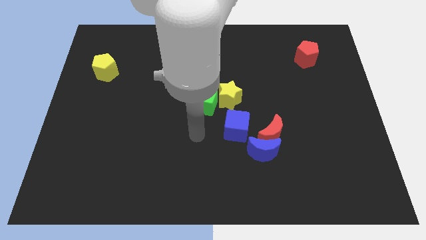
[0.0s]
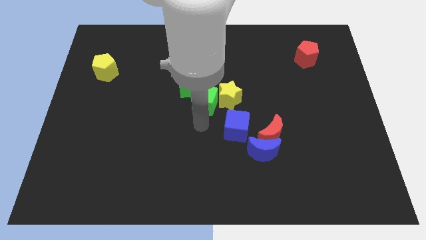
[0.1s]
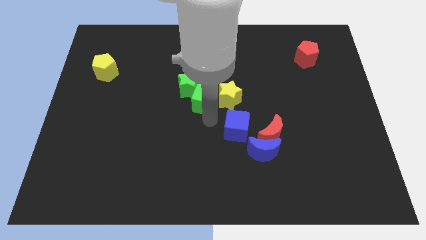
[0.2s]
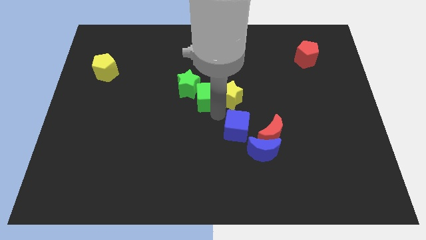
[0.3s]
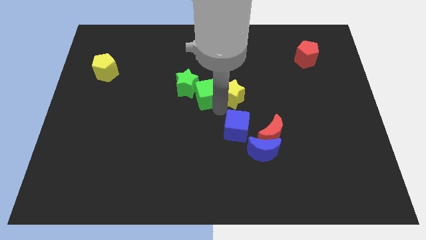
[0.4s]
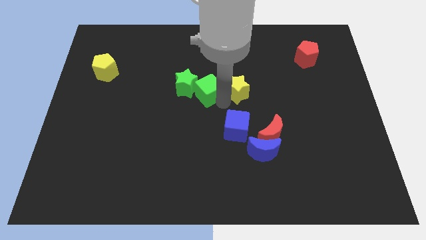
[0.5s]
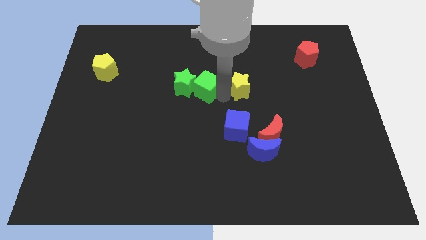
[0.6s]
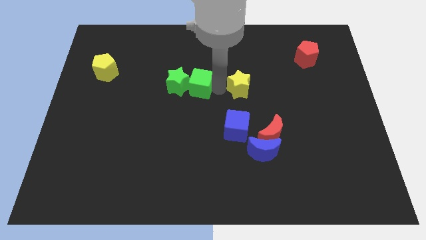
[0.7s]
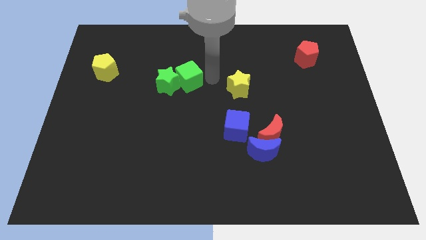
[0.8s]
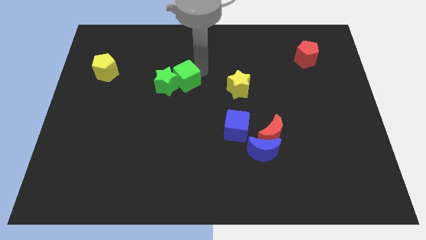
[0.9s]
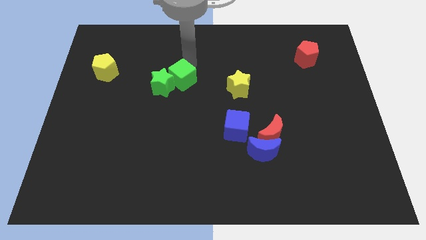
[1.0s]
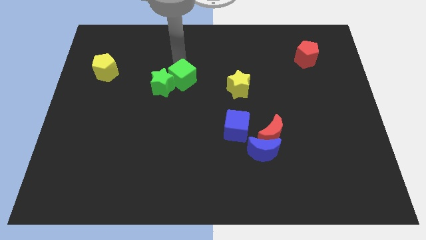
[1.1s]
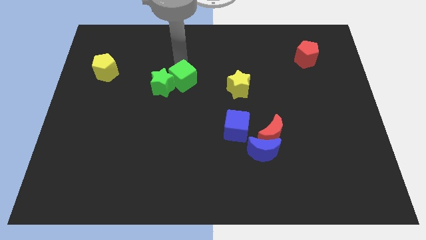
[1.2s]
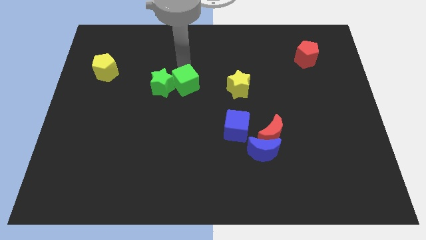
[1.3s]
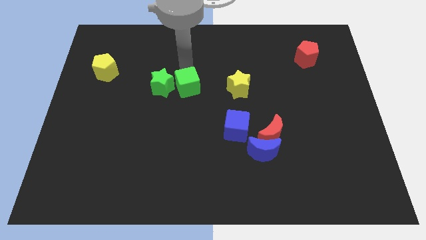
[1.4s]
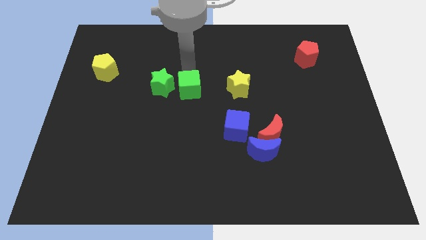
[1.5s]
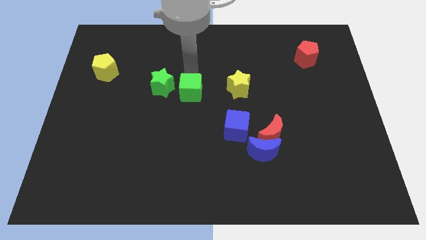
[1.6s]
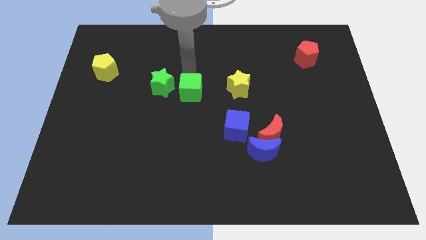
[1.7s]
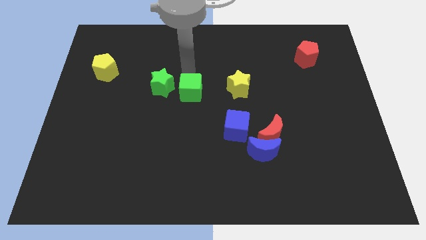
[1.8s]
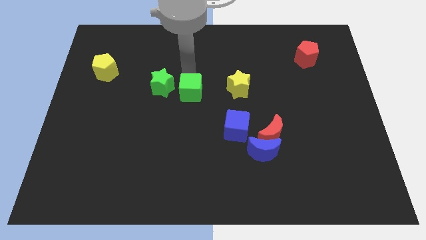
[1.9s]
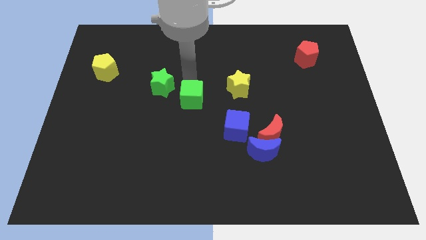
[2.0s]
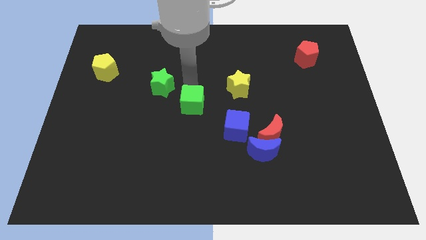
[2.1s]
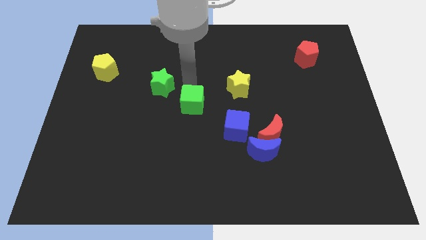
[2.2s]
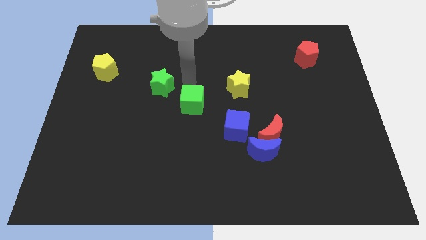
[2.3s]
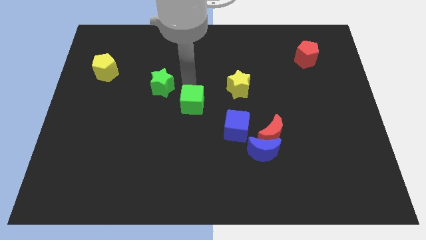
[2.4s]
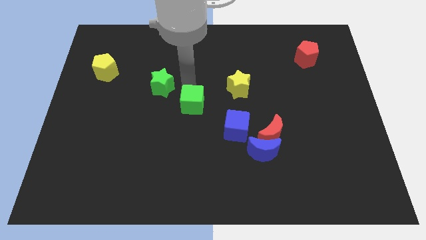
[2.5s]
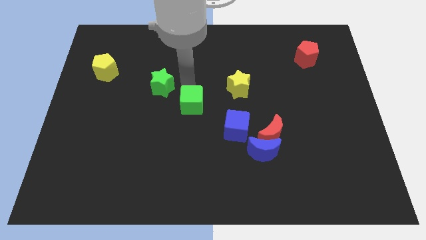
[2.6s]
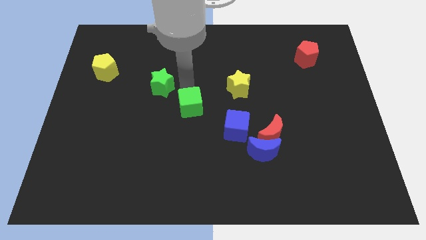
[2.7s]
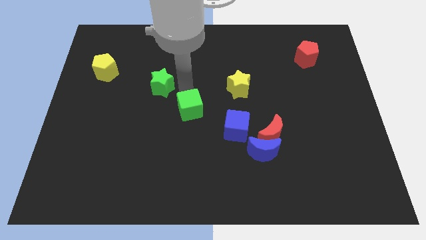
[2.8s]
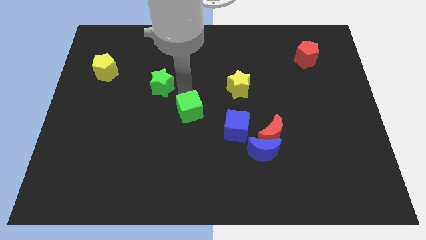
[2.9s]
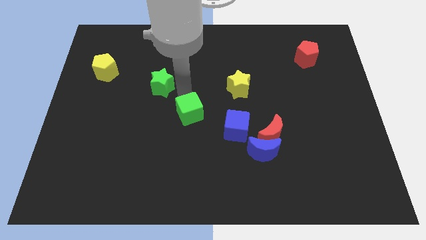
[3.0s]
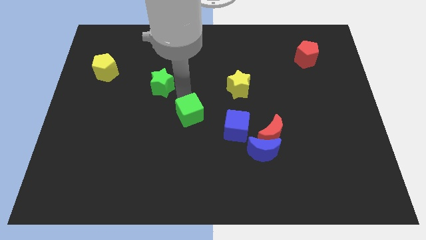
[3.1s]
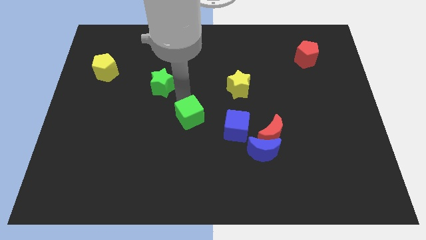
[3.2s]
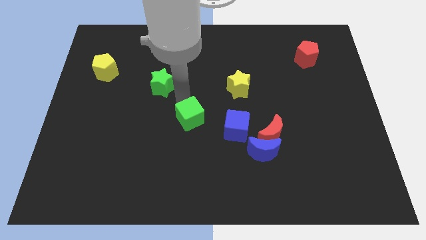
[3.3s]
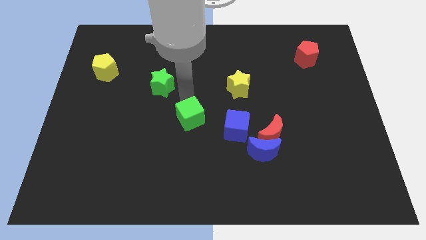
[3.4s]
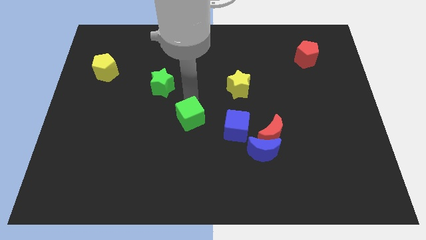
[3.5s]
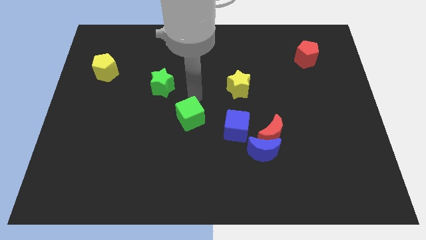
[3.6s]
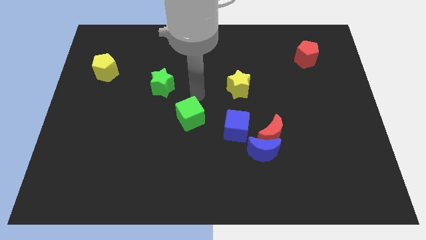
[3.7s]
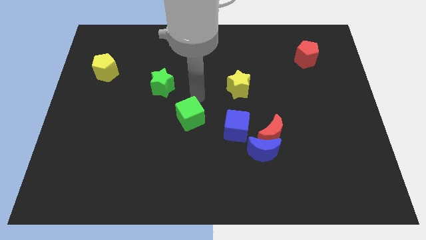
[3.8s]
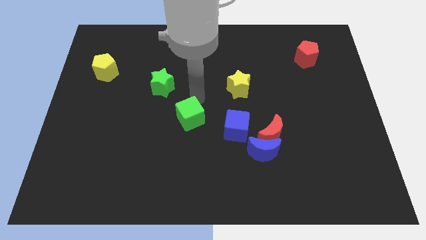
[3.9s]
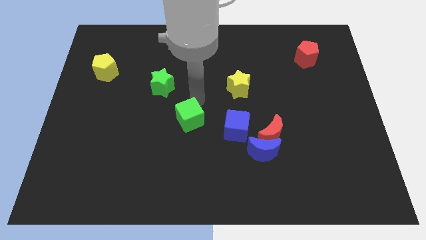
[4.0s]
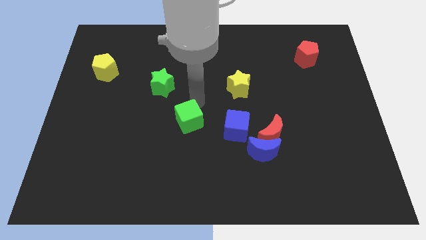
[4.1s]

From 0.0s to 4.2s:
separate the green cube from the yellow star and green star

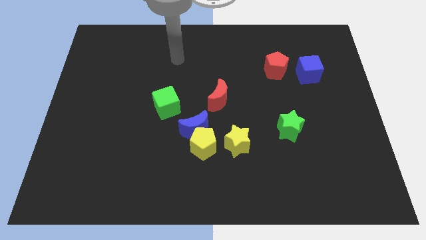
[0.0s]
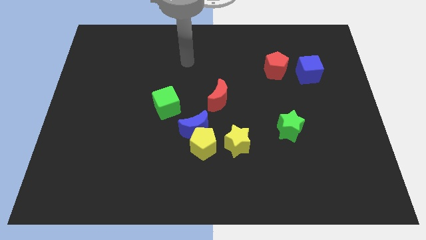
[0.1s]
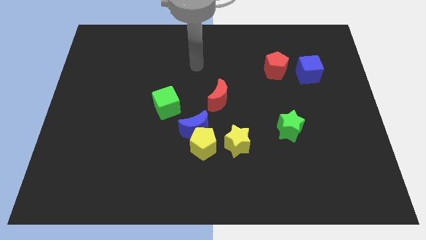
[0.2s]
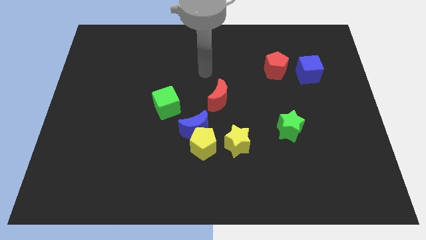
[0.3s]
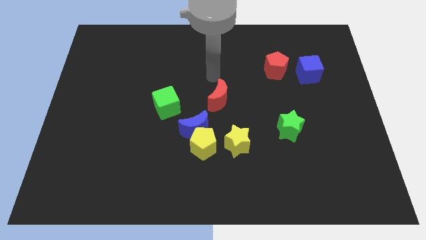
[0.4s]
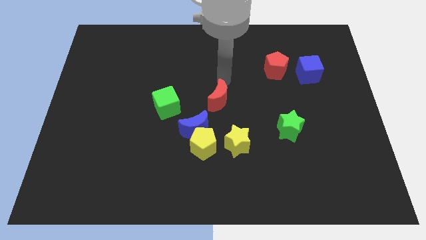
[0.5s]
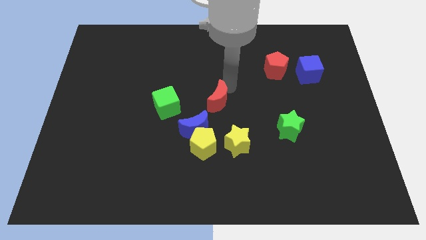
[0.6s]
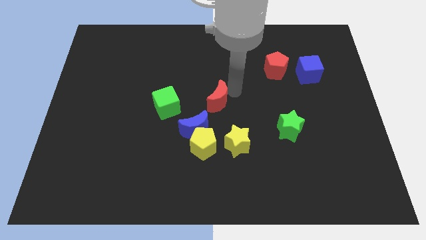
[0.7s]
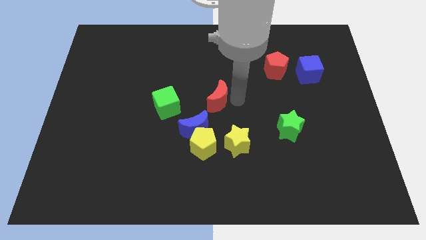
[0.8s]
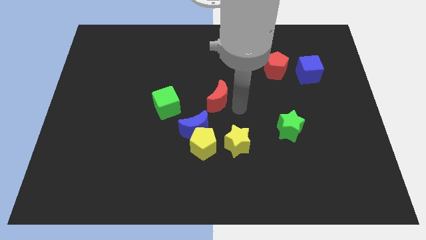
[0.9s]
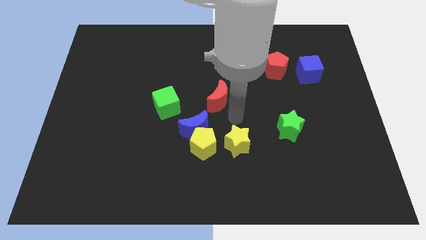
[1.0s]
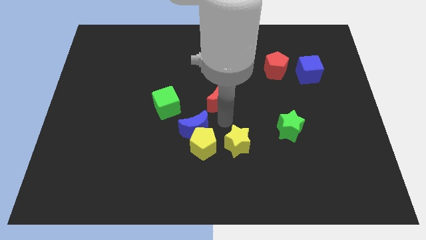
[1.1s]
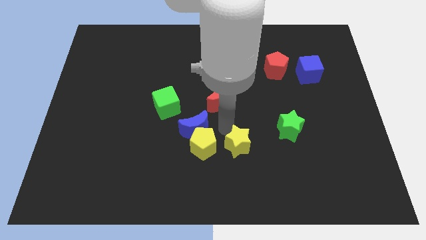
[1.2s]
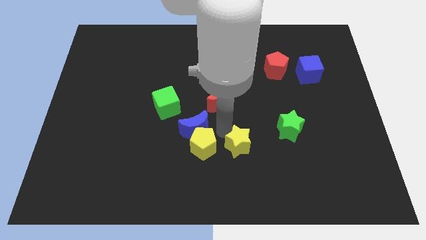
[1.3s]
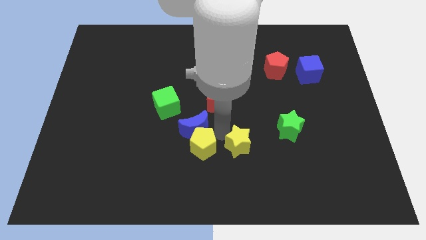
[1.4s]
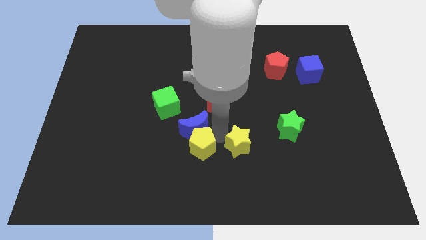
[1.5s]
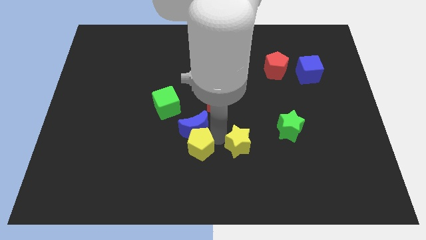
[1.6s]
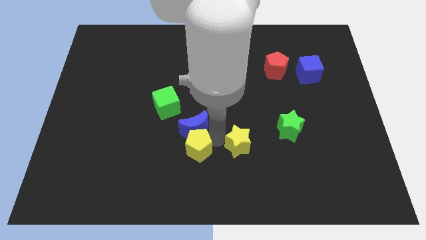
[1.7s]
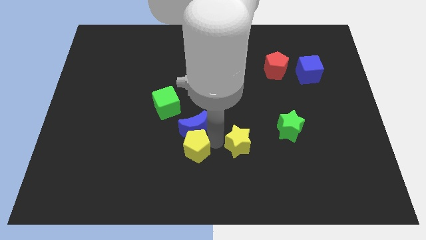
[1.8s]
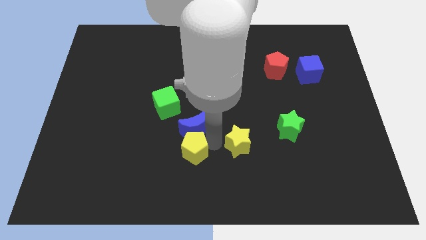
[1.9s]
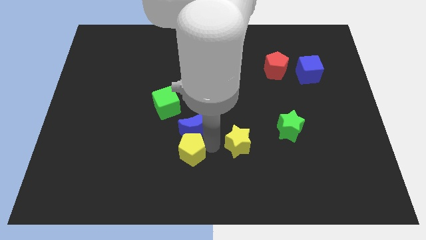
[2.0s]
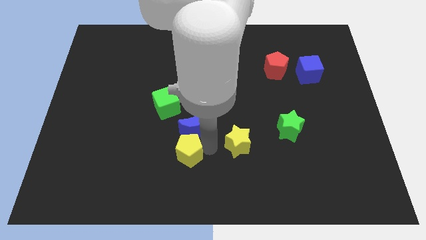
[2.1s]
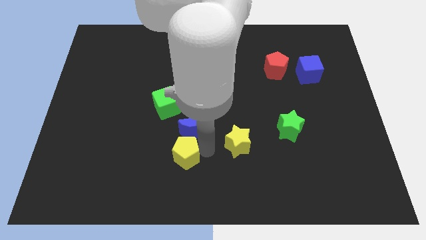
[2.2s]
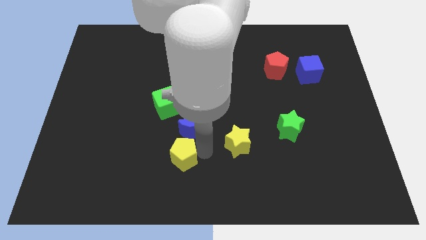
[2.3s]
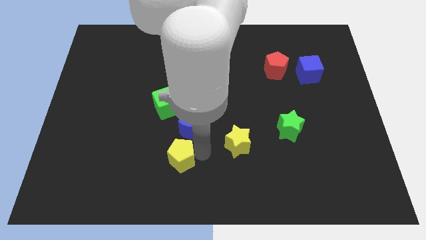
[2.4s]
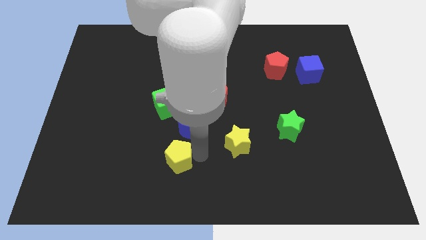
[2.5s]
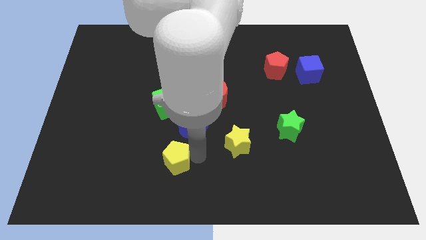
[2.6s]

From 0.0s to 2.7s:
pull the yellow pentagon apart from the blue moon and yellow star

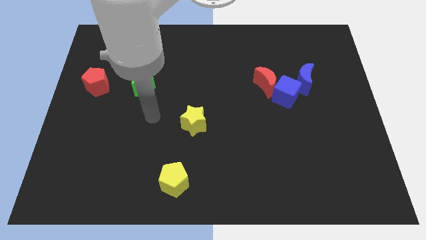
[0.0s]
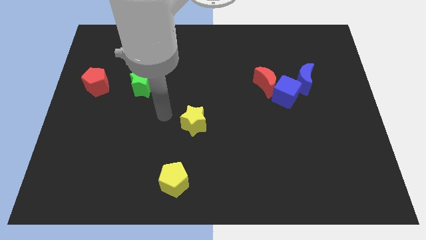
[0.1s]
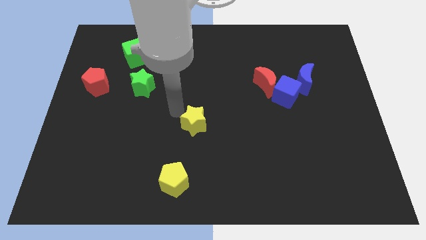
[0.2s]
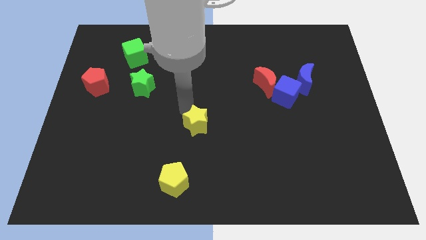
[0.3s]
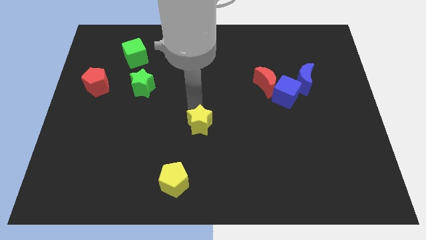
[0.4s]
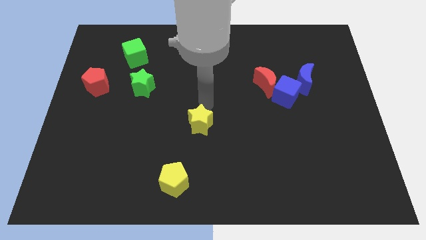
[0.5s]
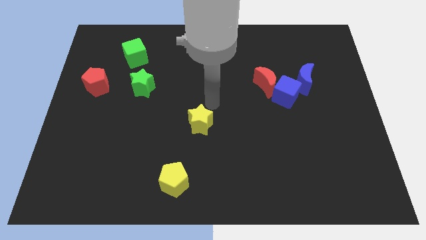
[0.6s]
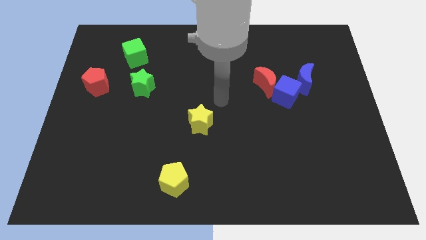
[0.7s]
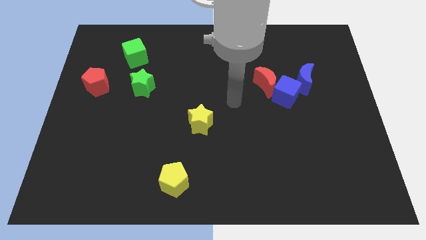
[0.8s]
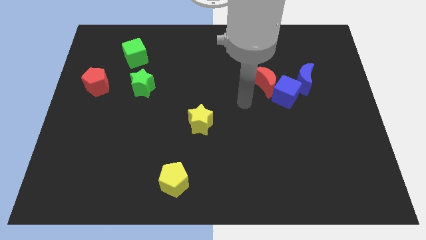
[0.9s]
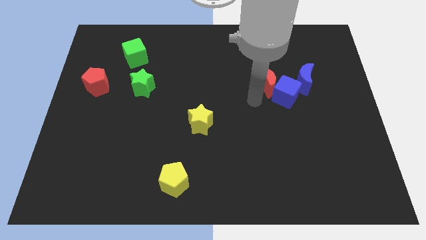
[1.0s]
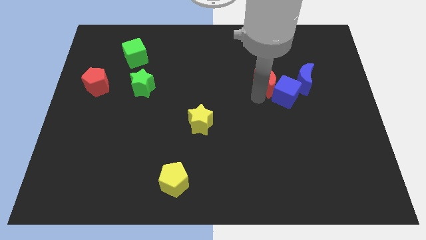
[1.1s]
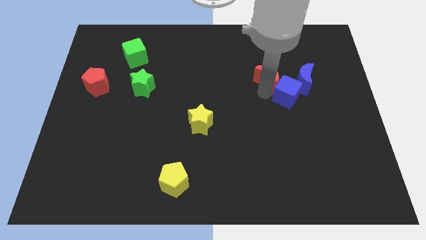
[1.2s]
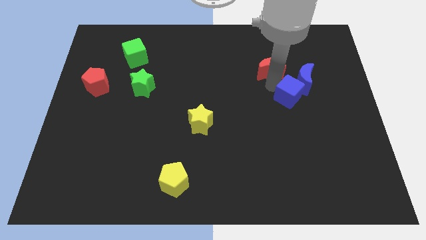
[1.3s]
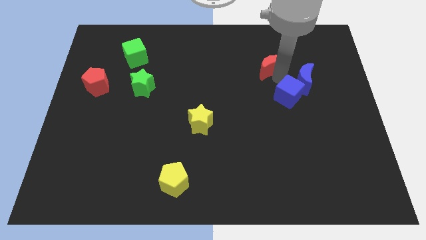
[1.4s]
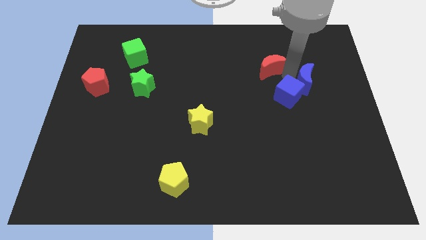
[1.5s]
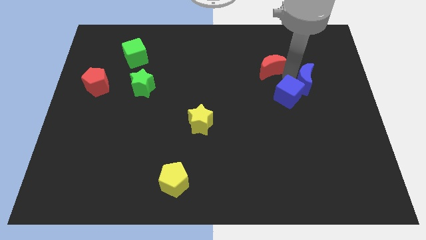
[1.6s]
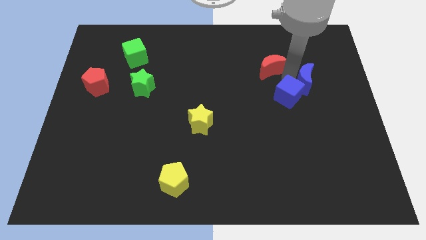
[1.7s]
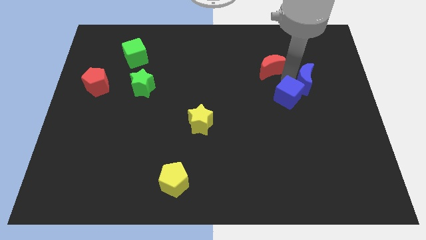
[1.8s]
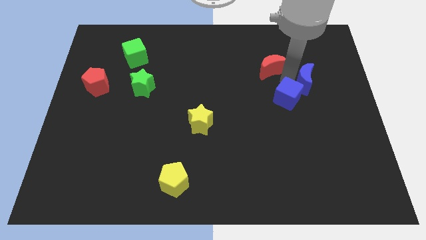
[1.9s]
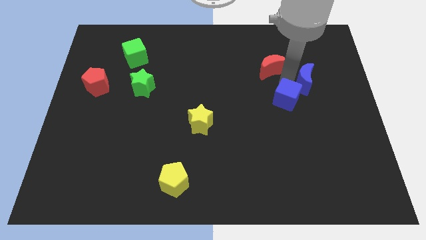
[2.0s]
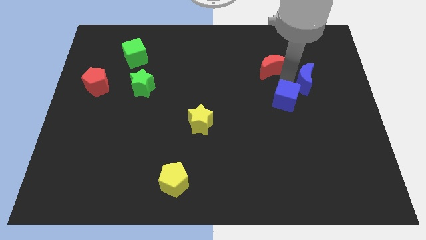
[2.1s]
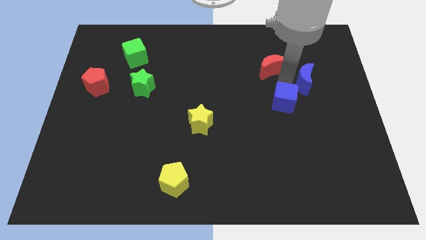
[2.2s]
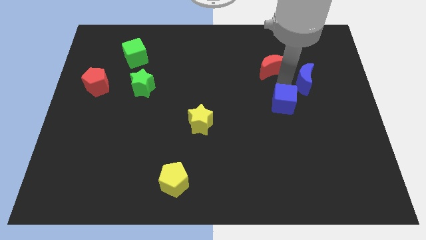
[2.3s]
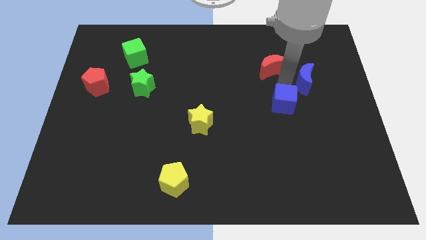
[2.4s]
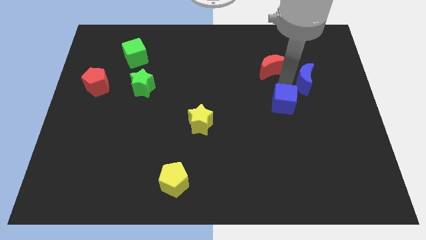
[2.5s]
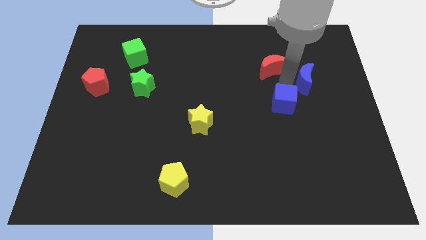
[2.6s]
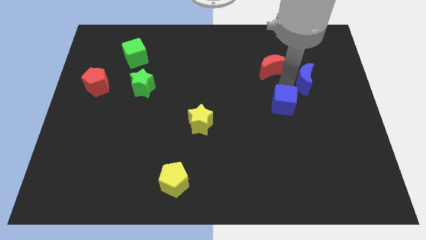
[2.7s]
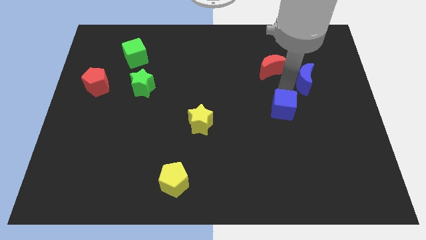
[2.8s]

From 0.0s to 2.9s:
pull the blue cube apart from the red moon and blue moon
